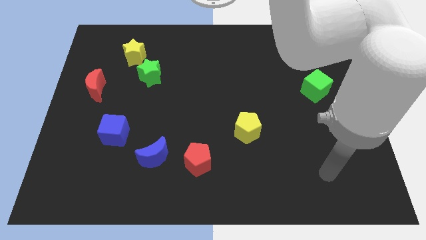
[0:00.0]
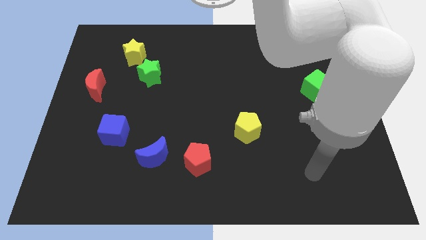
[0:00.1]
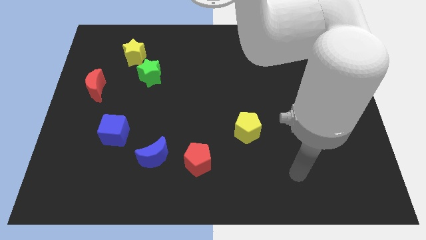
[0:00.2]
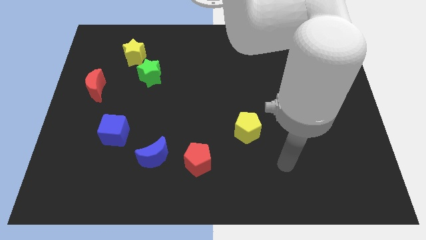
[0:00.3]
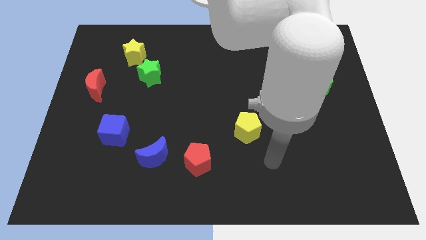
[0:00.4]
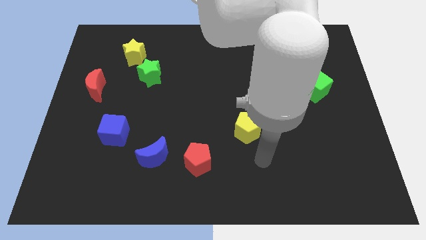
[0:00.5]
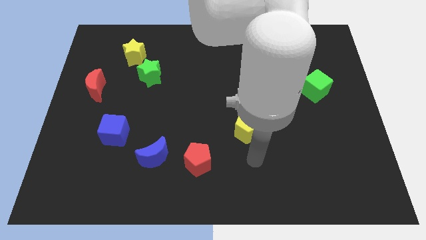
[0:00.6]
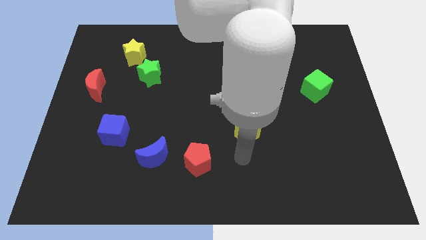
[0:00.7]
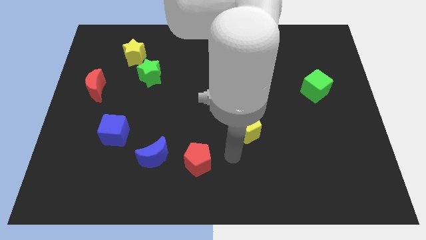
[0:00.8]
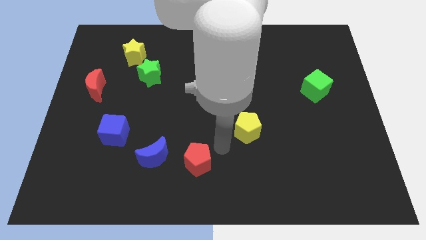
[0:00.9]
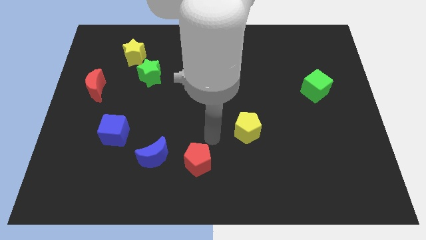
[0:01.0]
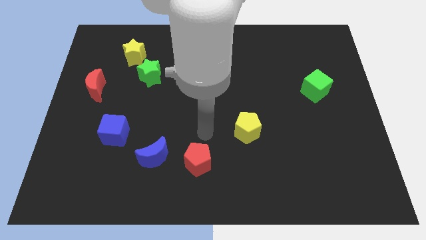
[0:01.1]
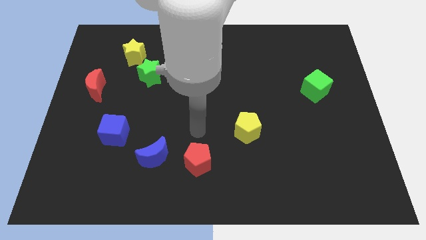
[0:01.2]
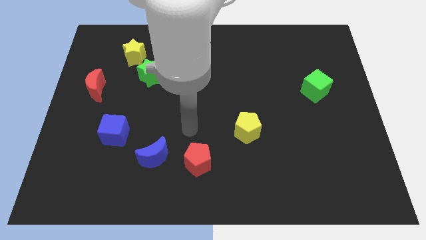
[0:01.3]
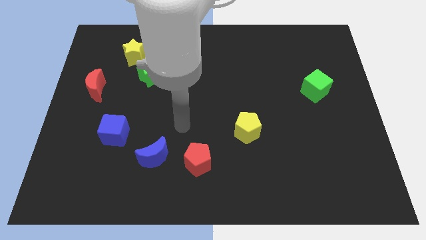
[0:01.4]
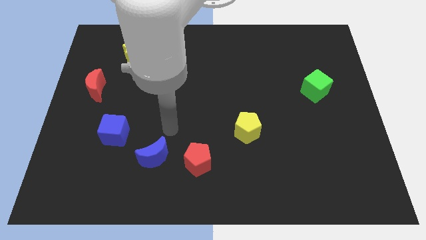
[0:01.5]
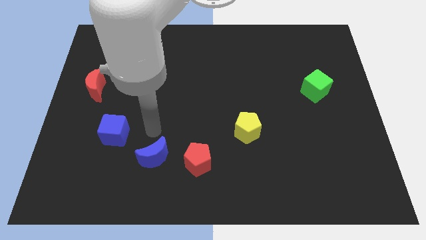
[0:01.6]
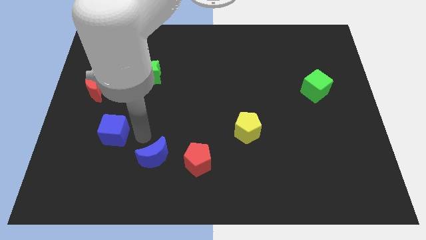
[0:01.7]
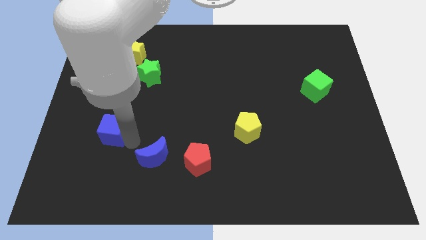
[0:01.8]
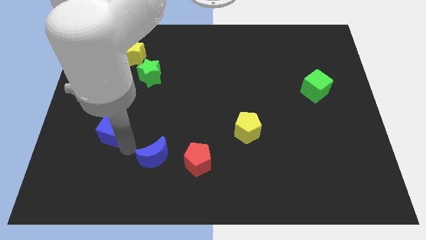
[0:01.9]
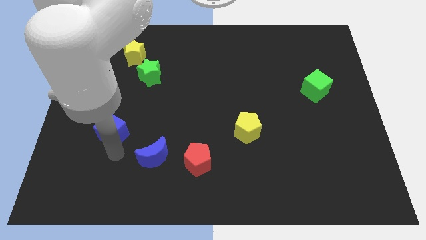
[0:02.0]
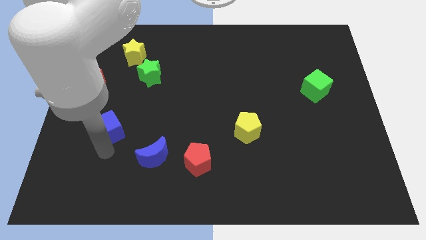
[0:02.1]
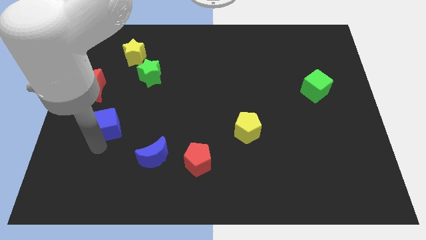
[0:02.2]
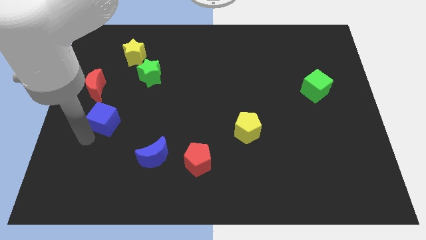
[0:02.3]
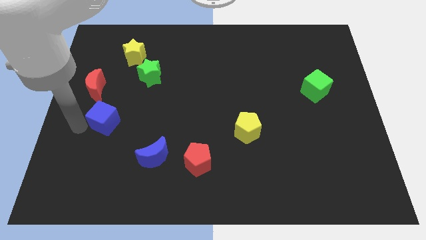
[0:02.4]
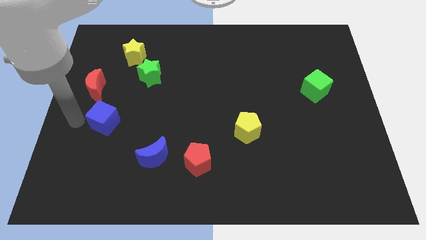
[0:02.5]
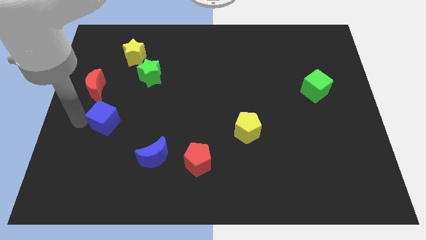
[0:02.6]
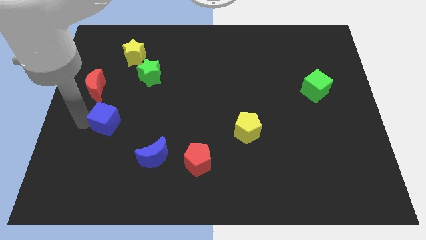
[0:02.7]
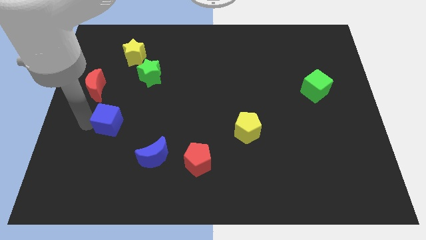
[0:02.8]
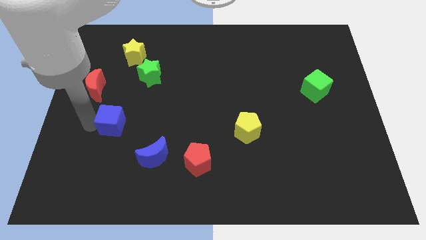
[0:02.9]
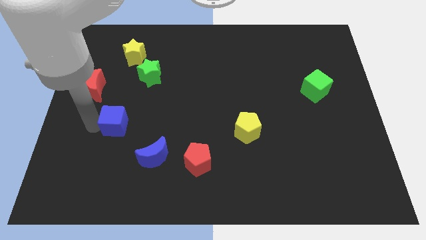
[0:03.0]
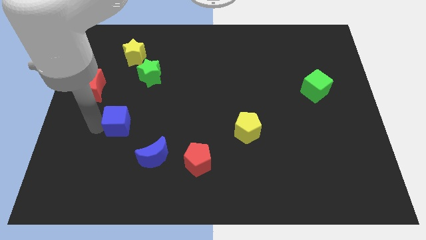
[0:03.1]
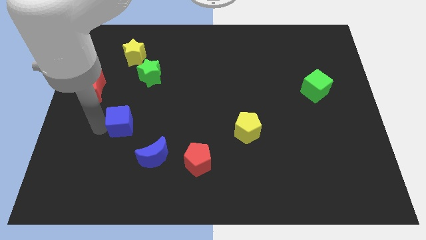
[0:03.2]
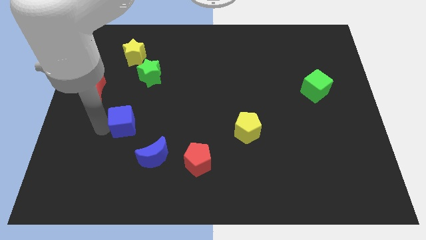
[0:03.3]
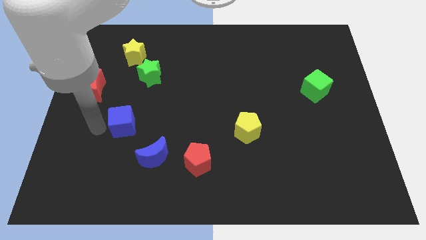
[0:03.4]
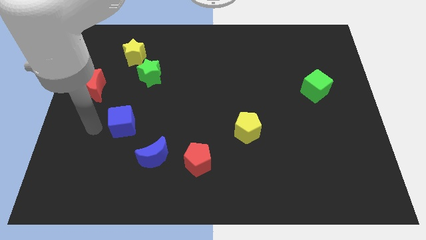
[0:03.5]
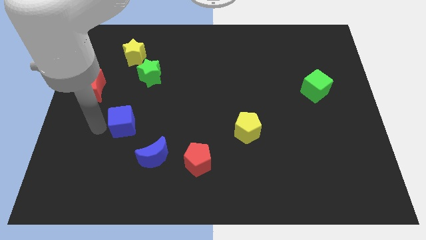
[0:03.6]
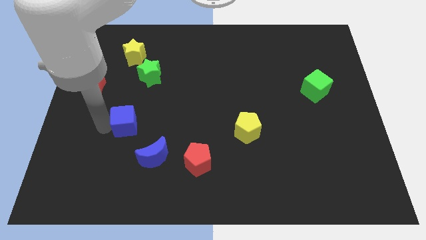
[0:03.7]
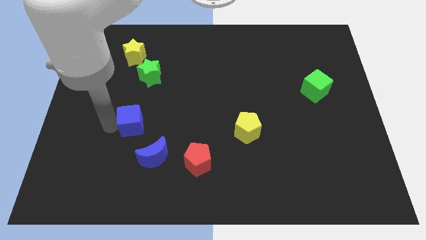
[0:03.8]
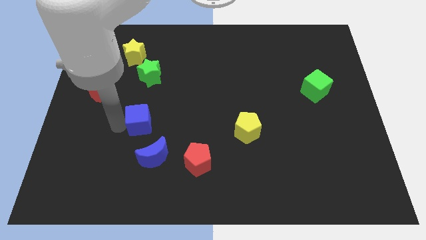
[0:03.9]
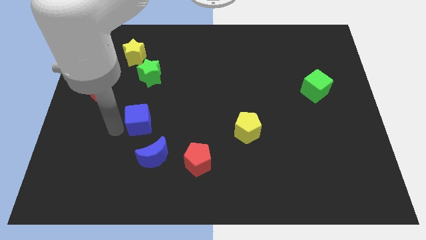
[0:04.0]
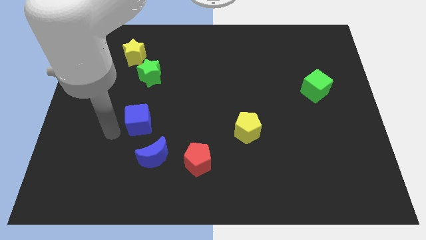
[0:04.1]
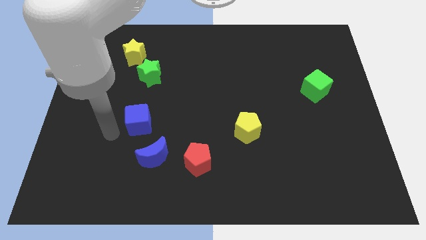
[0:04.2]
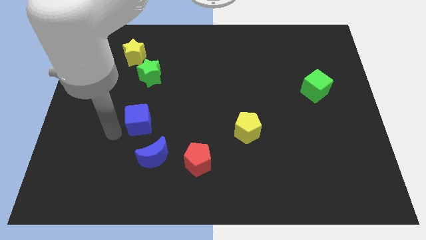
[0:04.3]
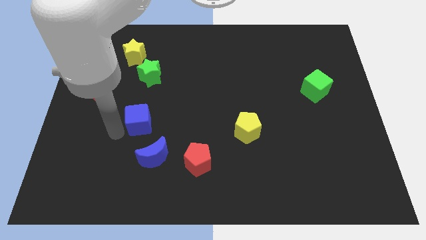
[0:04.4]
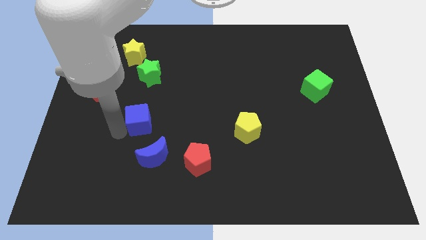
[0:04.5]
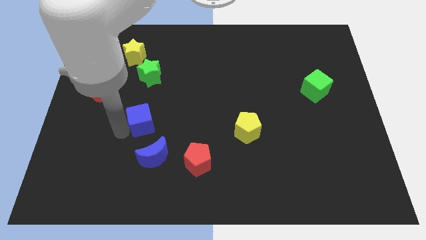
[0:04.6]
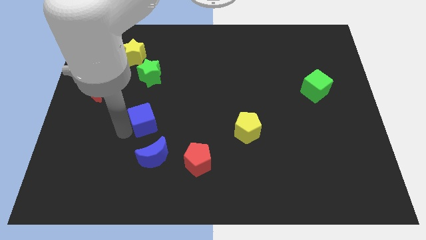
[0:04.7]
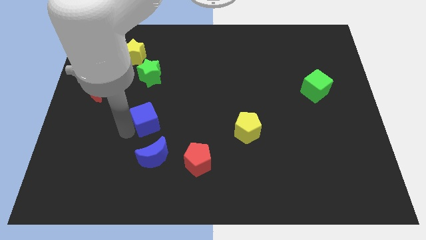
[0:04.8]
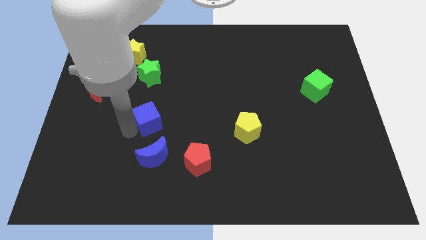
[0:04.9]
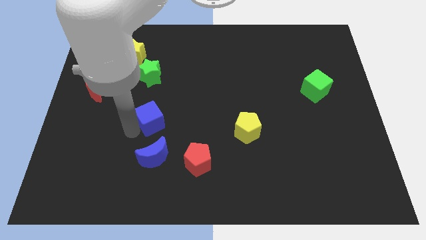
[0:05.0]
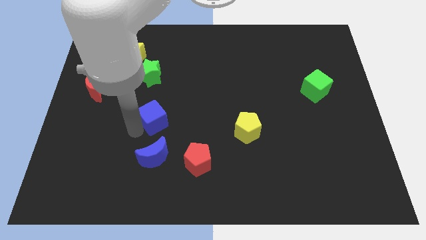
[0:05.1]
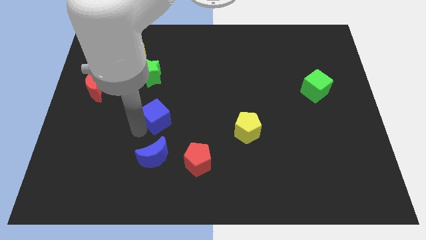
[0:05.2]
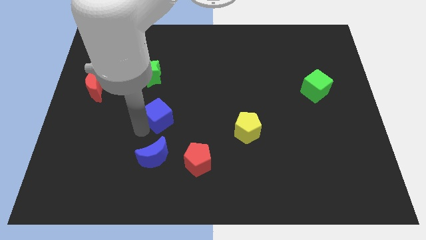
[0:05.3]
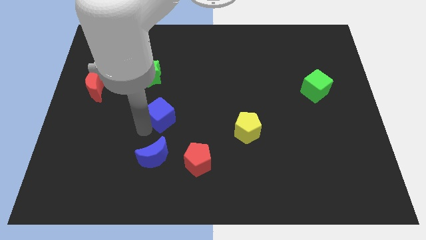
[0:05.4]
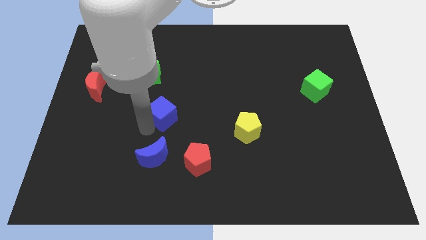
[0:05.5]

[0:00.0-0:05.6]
move the blue cube to the center

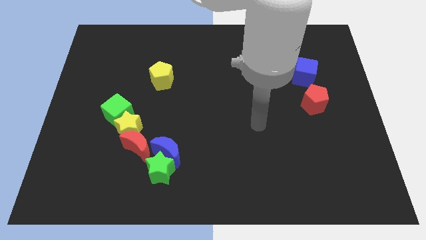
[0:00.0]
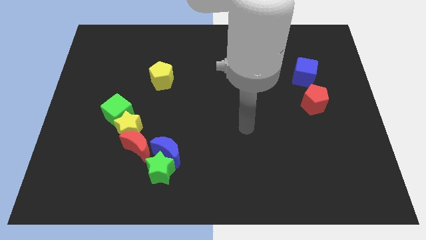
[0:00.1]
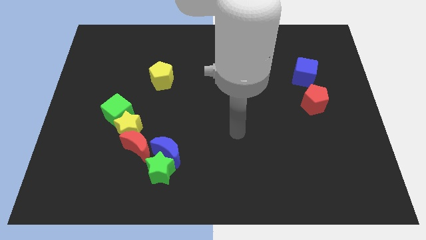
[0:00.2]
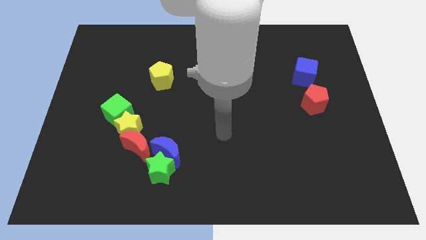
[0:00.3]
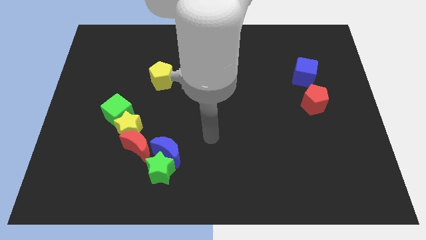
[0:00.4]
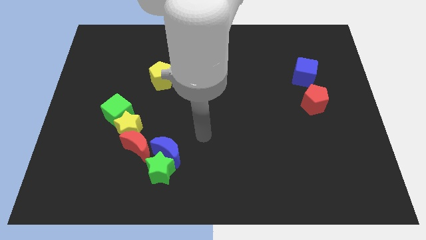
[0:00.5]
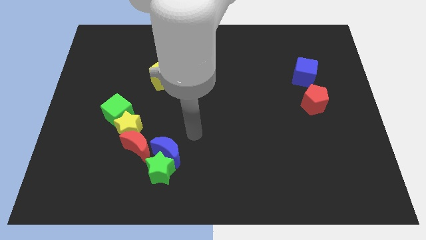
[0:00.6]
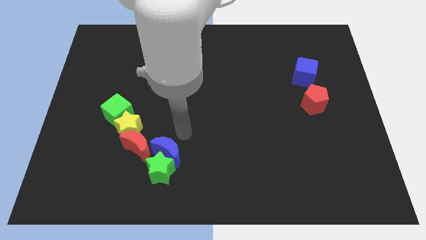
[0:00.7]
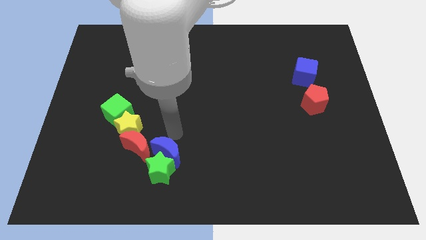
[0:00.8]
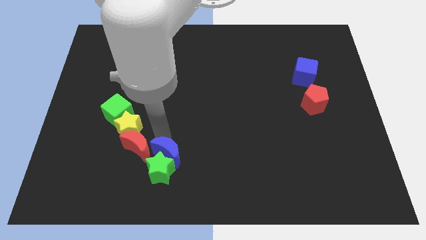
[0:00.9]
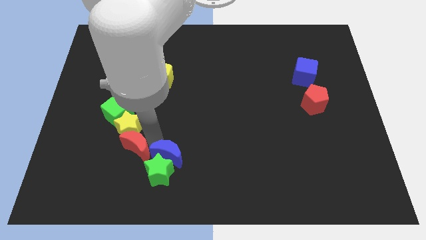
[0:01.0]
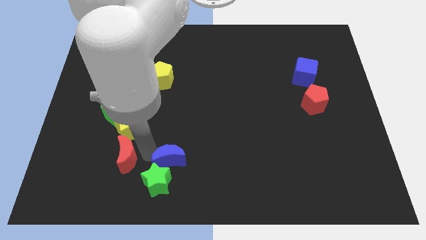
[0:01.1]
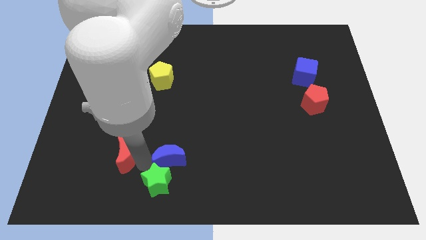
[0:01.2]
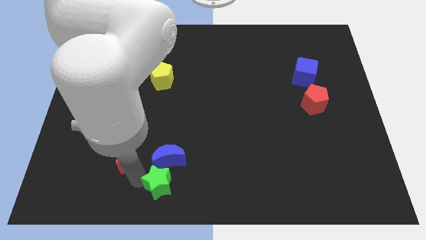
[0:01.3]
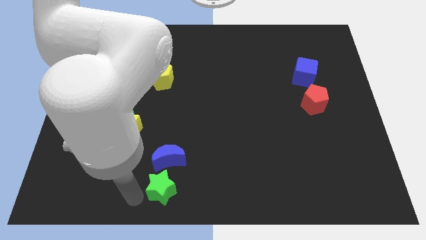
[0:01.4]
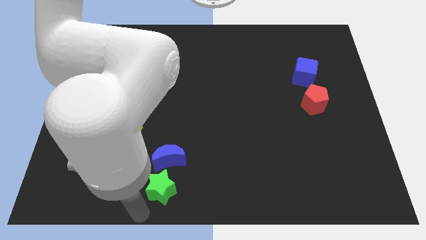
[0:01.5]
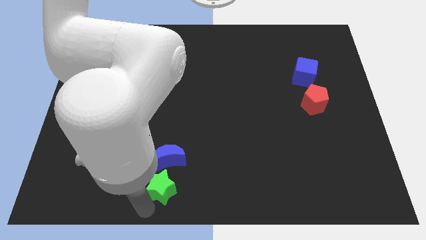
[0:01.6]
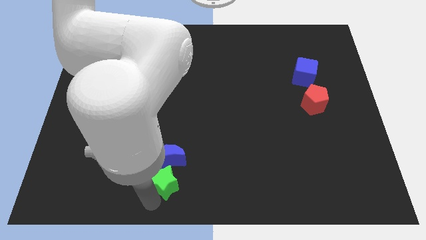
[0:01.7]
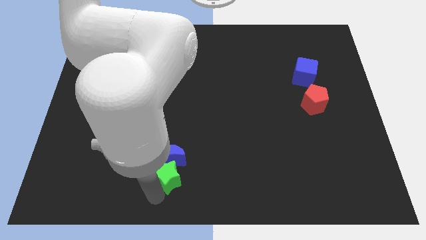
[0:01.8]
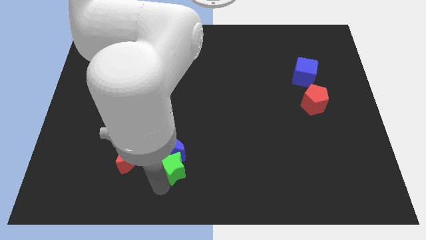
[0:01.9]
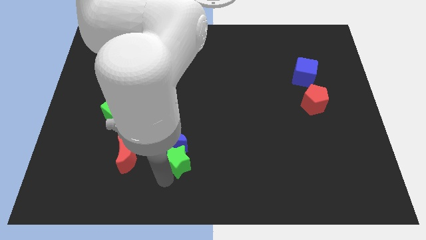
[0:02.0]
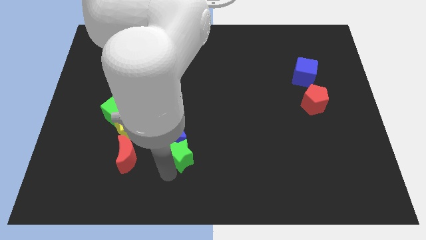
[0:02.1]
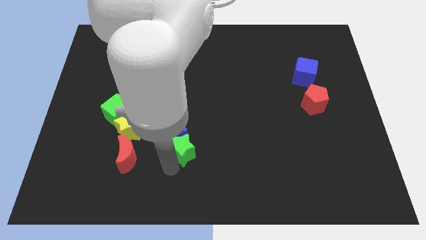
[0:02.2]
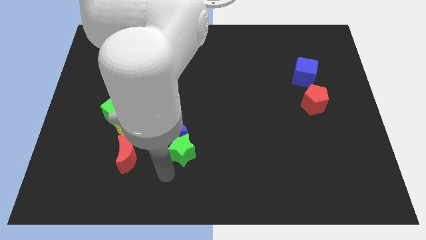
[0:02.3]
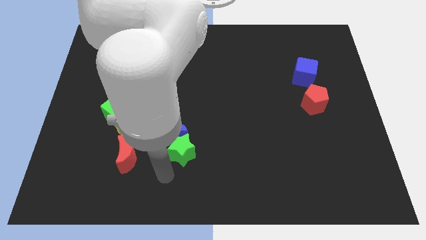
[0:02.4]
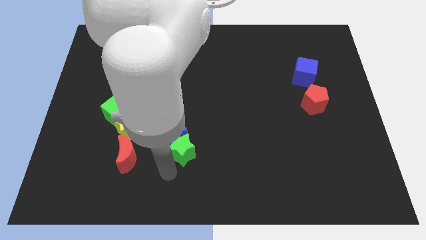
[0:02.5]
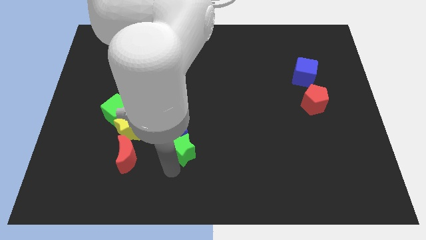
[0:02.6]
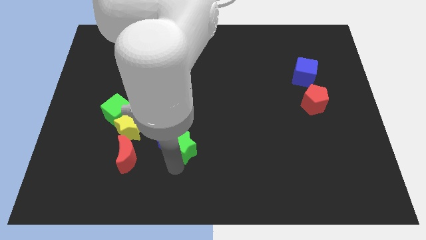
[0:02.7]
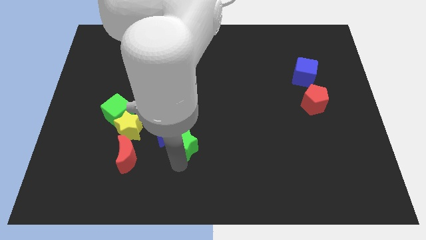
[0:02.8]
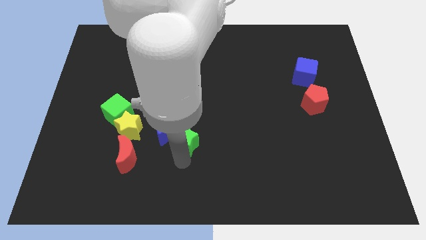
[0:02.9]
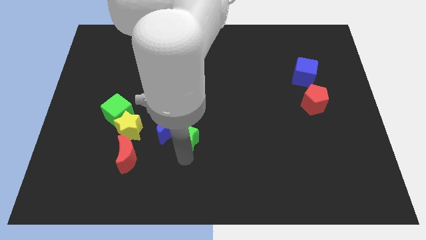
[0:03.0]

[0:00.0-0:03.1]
put the green star to the middle
